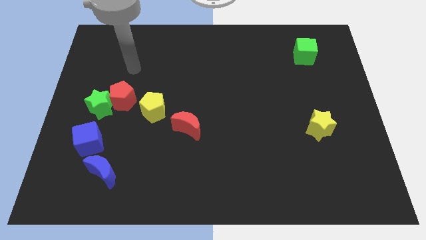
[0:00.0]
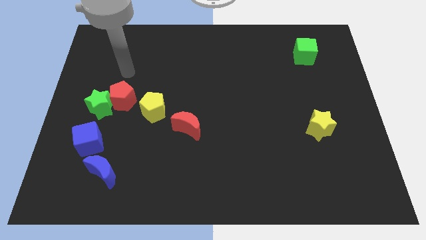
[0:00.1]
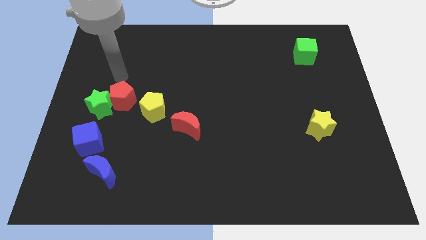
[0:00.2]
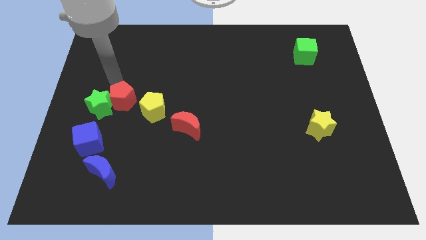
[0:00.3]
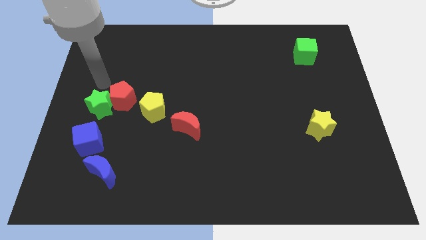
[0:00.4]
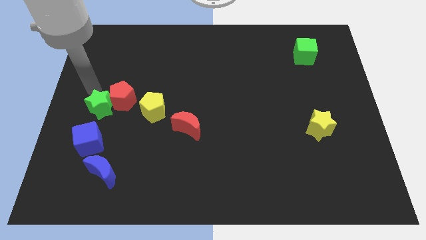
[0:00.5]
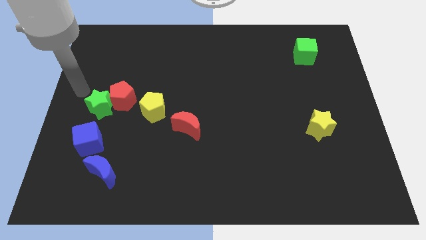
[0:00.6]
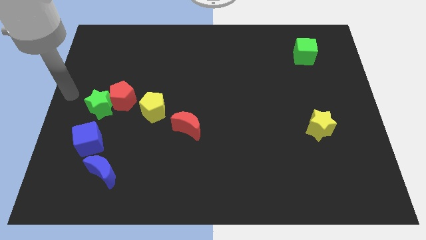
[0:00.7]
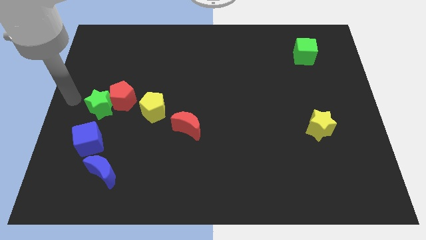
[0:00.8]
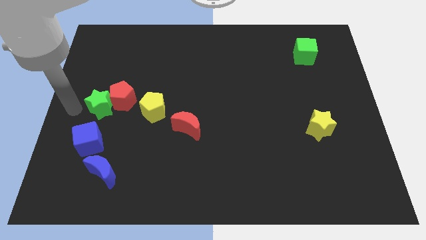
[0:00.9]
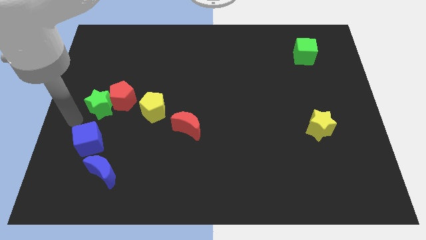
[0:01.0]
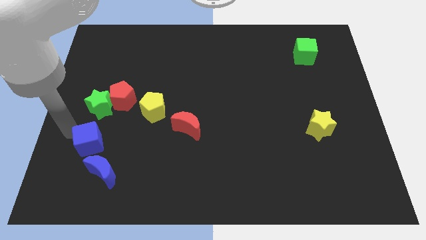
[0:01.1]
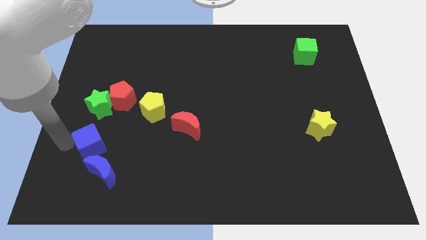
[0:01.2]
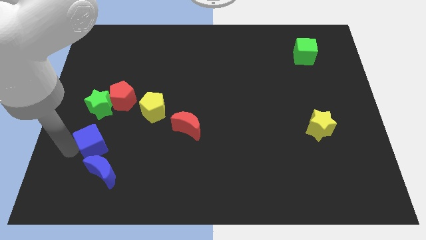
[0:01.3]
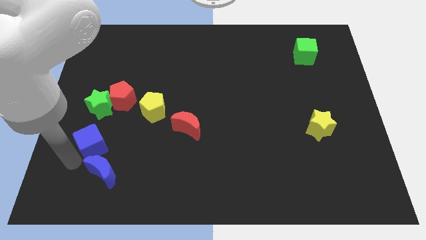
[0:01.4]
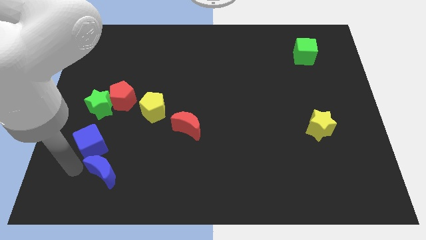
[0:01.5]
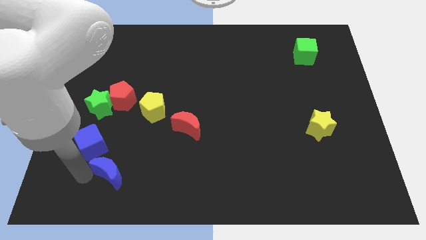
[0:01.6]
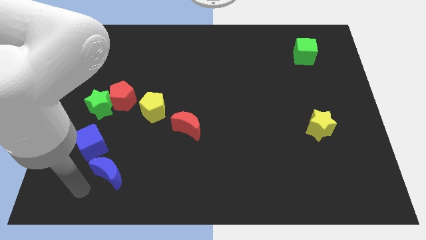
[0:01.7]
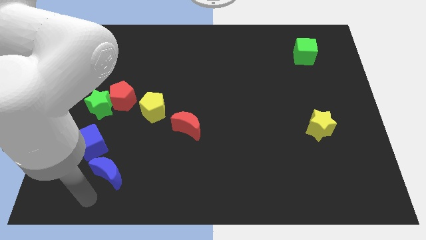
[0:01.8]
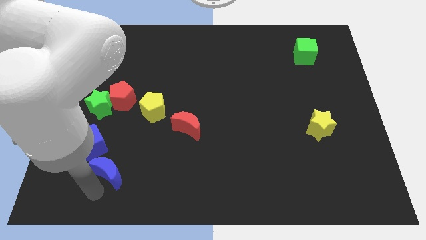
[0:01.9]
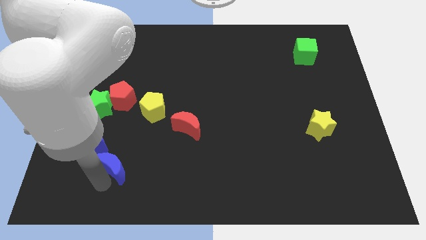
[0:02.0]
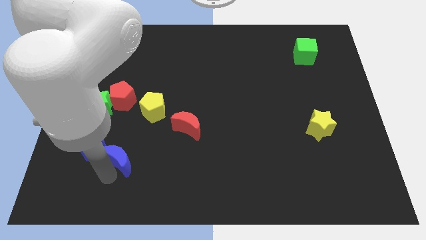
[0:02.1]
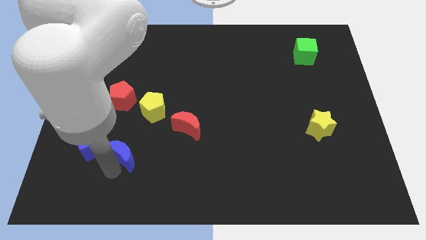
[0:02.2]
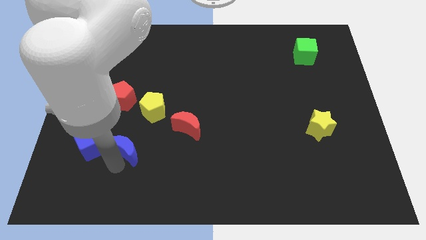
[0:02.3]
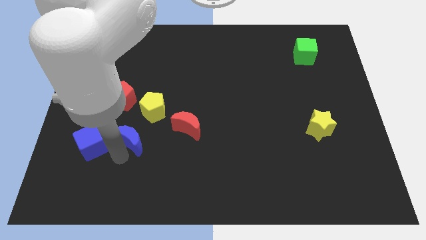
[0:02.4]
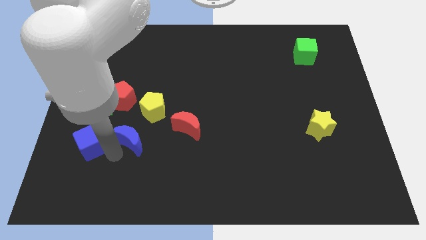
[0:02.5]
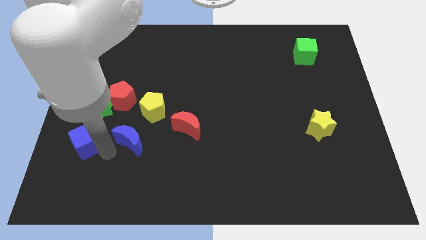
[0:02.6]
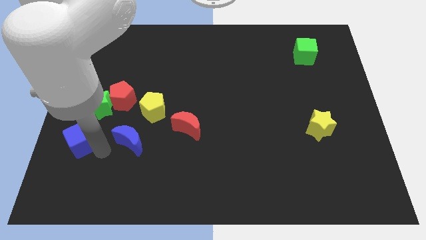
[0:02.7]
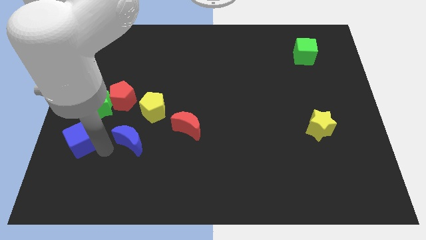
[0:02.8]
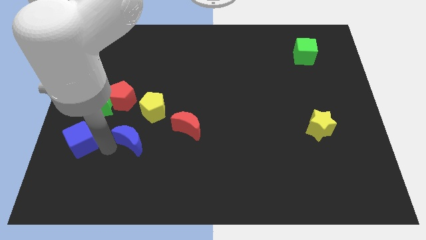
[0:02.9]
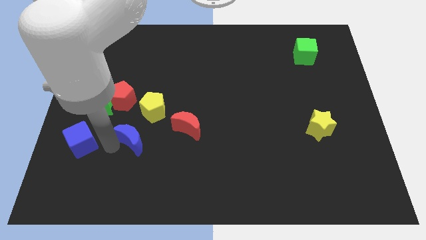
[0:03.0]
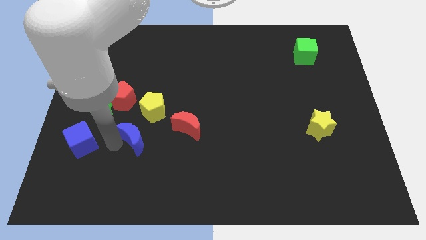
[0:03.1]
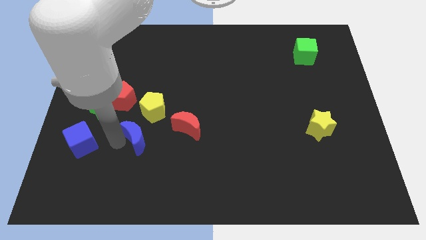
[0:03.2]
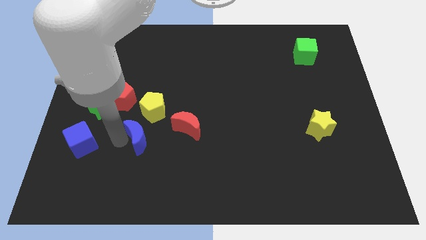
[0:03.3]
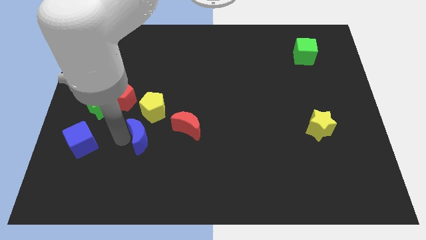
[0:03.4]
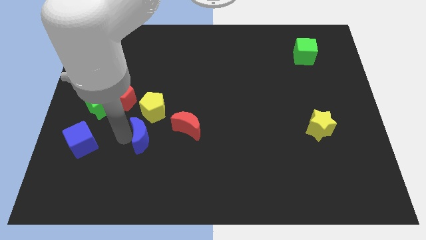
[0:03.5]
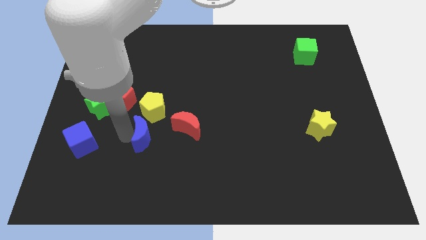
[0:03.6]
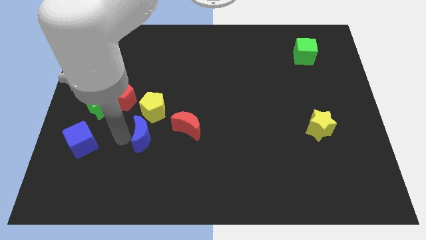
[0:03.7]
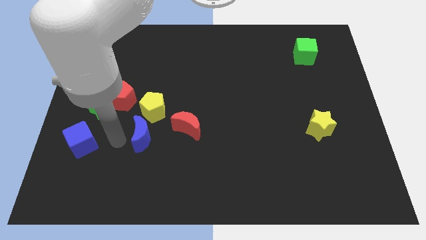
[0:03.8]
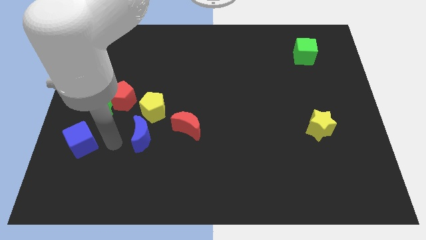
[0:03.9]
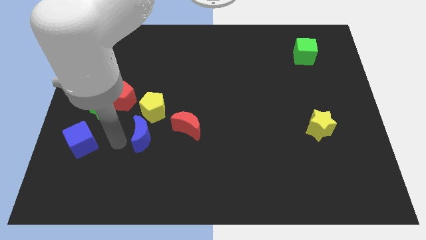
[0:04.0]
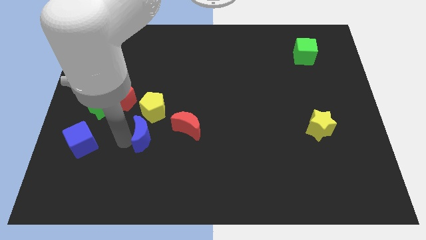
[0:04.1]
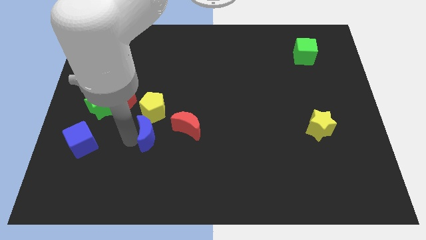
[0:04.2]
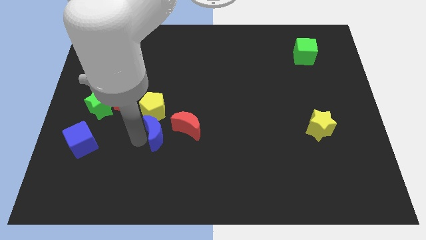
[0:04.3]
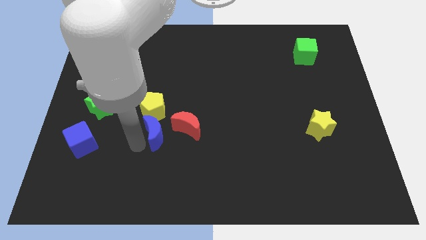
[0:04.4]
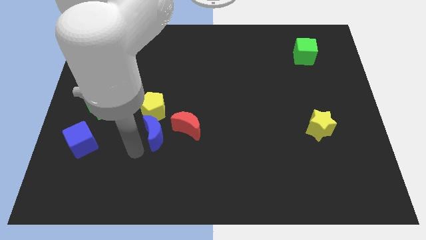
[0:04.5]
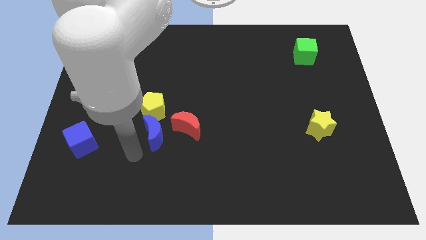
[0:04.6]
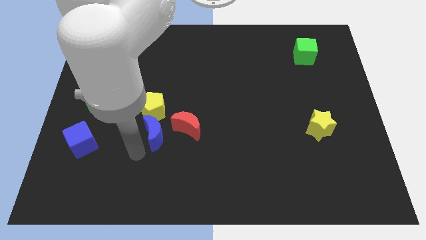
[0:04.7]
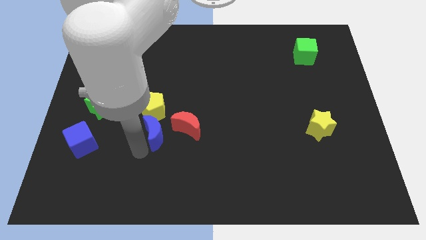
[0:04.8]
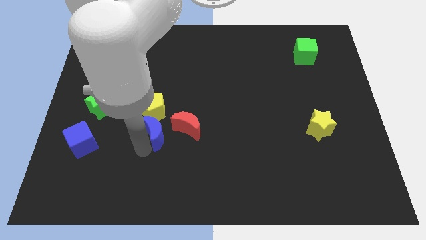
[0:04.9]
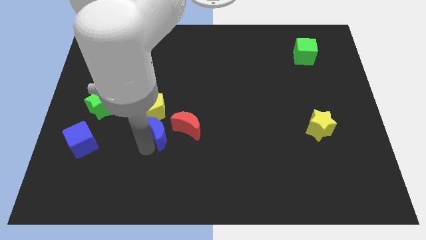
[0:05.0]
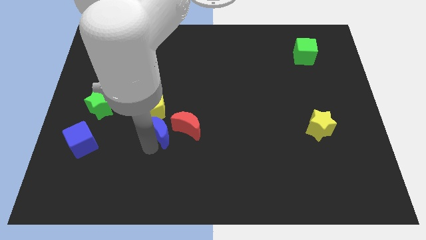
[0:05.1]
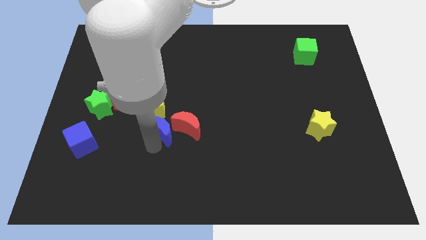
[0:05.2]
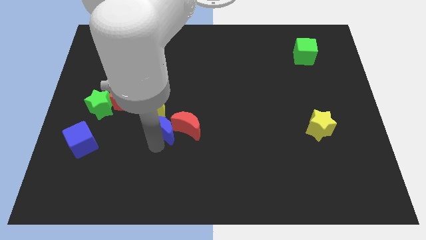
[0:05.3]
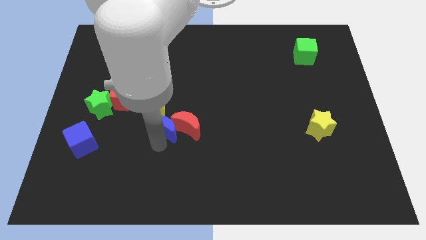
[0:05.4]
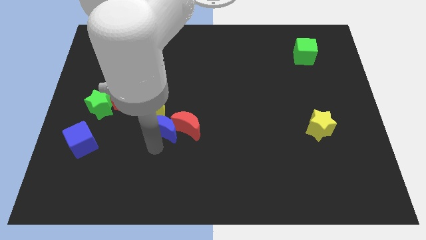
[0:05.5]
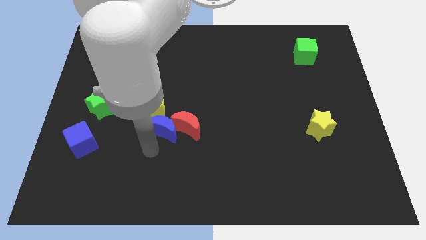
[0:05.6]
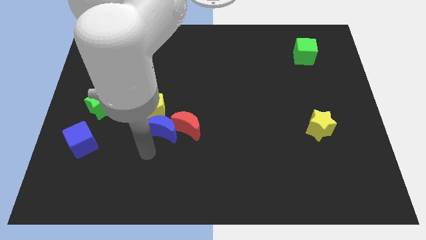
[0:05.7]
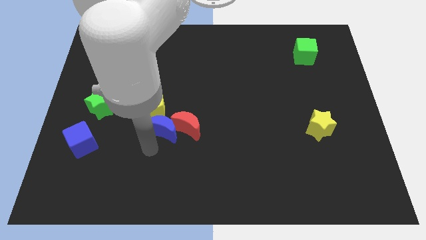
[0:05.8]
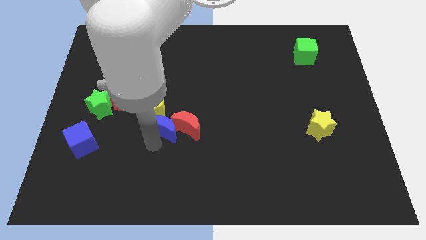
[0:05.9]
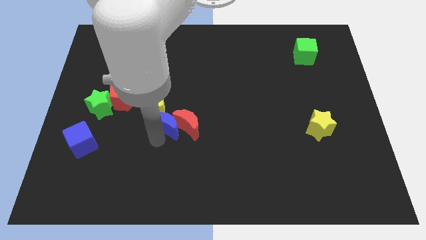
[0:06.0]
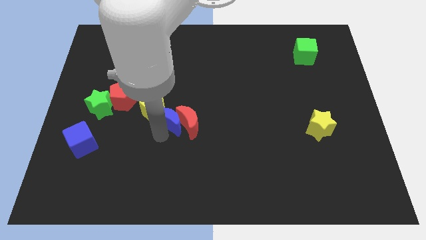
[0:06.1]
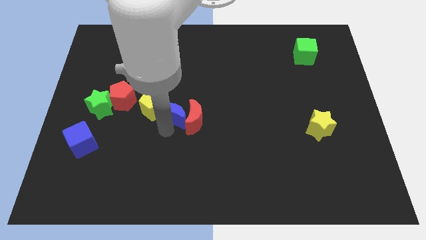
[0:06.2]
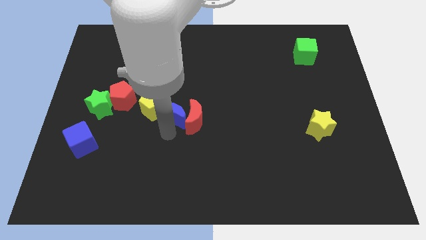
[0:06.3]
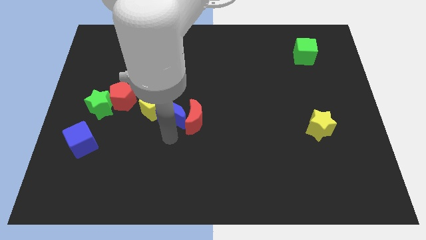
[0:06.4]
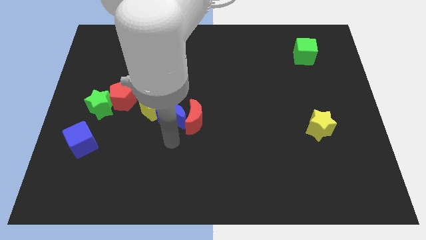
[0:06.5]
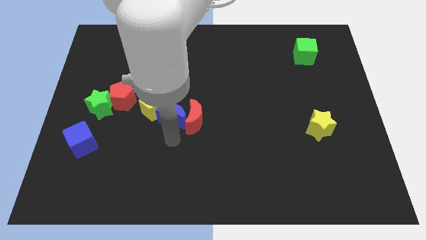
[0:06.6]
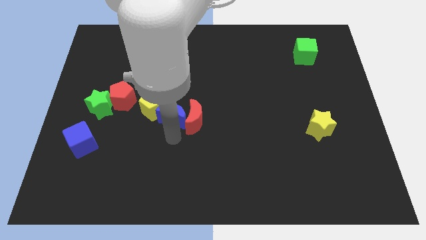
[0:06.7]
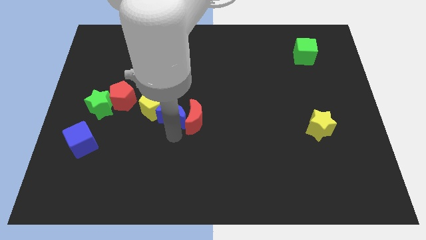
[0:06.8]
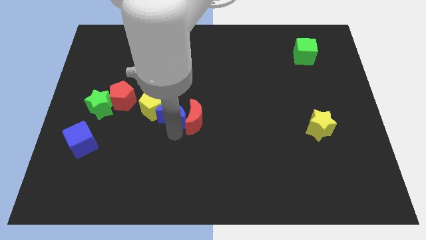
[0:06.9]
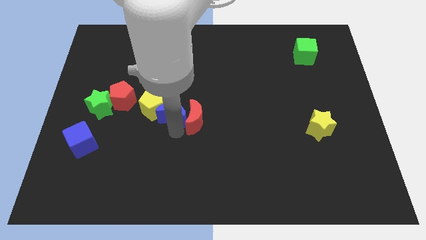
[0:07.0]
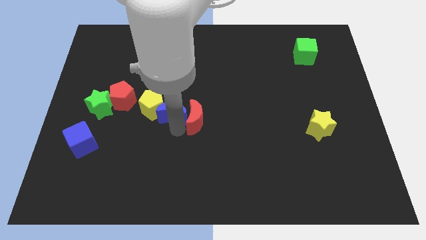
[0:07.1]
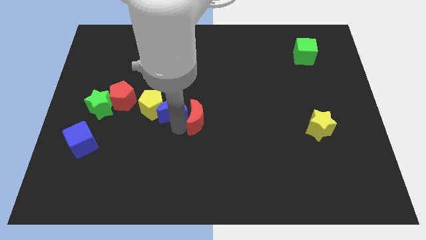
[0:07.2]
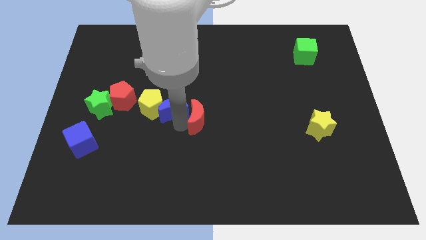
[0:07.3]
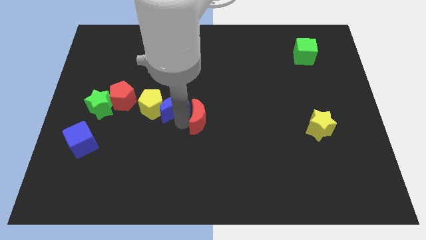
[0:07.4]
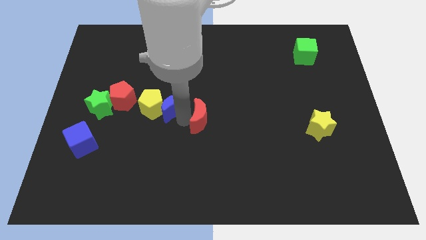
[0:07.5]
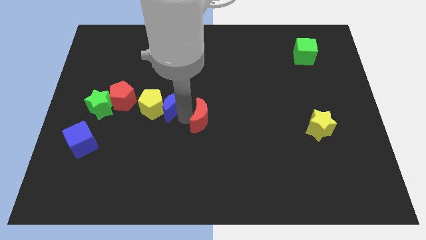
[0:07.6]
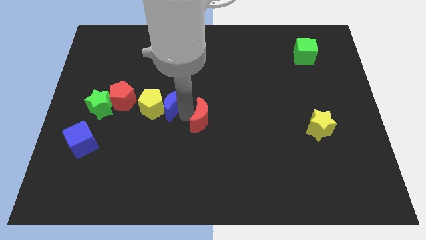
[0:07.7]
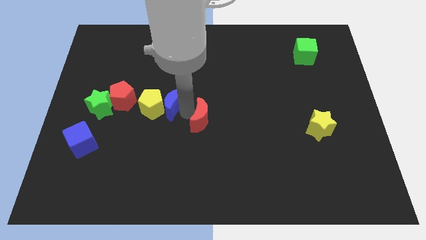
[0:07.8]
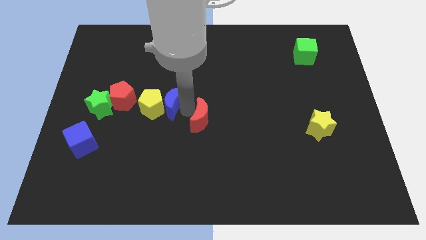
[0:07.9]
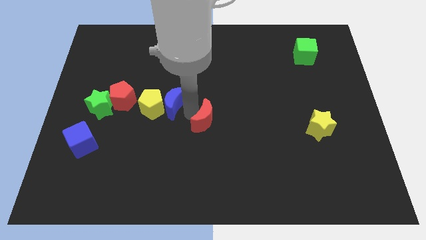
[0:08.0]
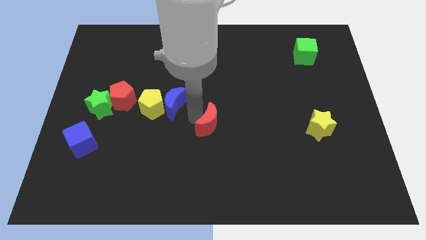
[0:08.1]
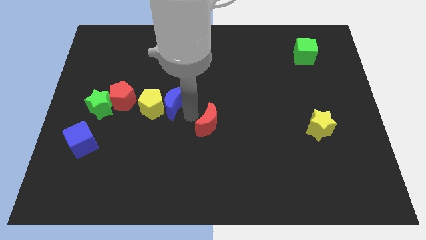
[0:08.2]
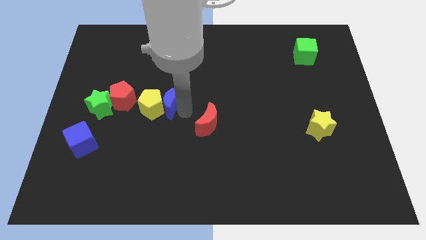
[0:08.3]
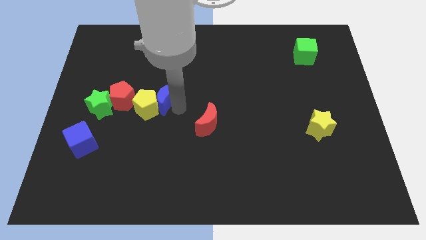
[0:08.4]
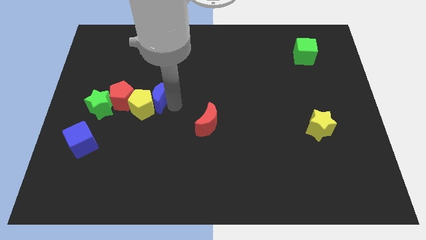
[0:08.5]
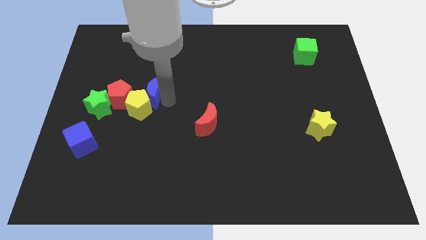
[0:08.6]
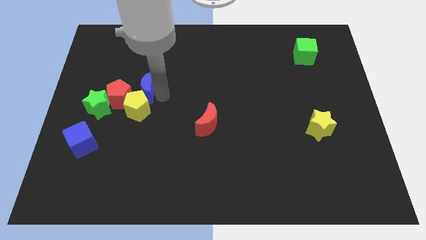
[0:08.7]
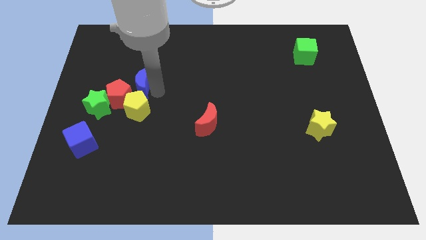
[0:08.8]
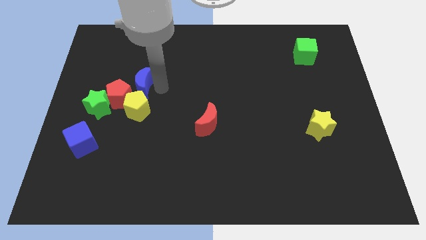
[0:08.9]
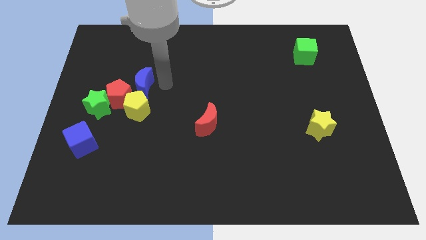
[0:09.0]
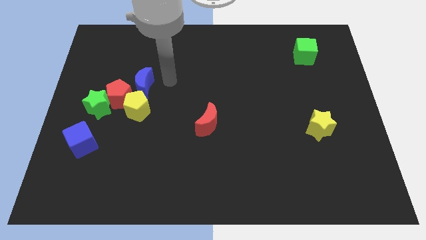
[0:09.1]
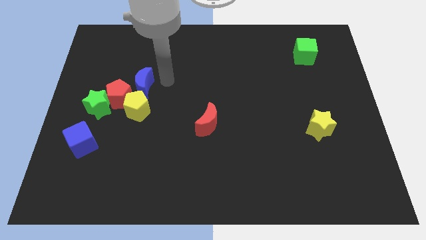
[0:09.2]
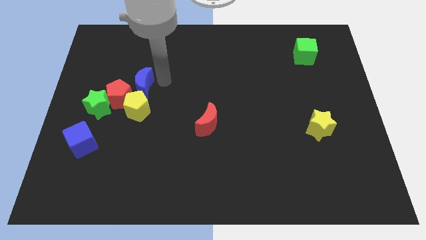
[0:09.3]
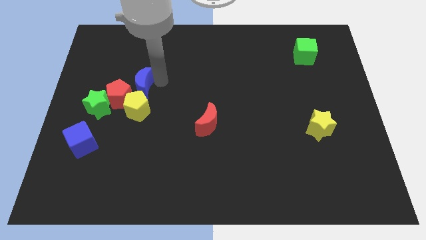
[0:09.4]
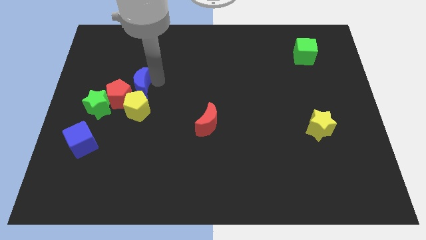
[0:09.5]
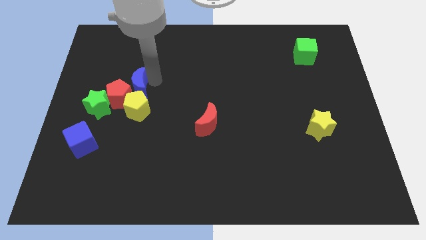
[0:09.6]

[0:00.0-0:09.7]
push the blue moon diagonally up and to the left of the yellow pentagon
